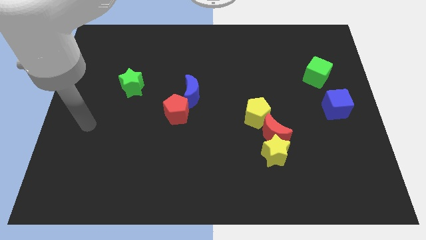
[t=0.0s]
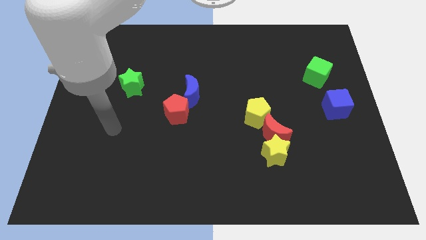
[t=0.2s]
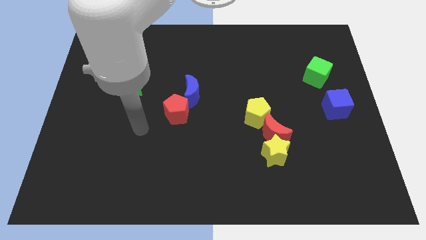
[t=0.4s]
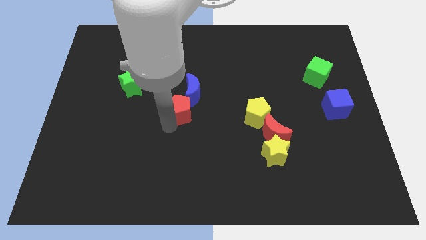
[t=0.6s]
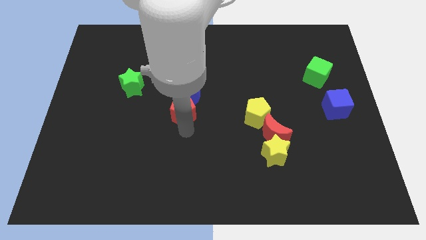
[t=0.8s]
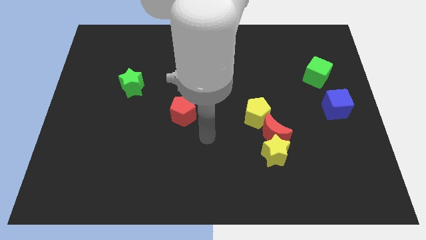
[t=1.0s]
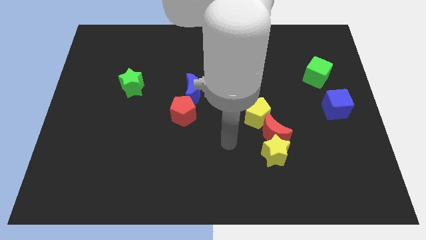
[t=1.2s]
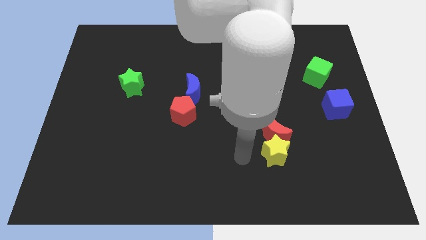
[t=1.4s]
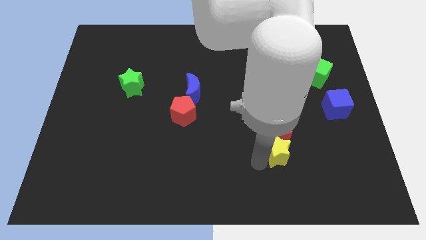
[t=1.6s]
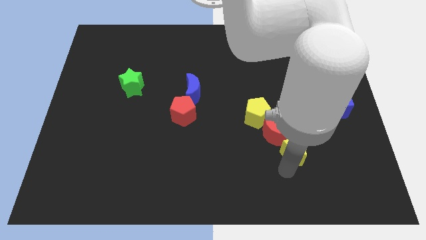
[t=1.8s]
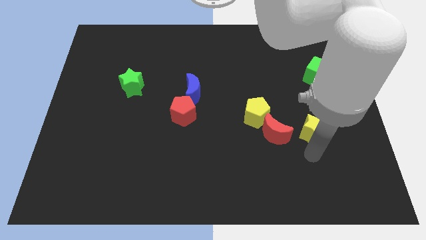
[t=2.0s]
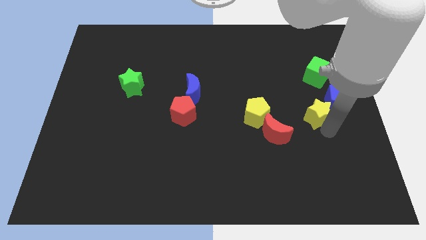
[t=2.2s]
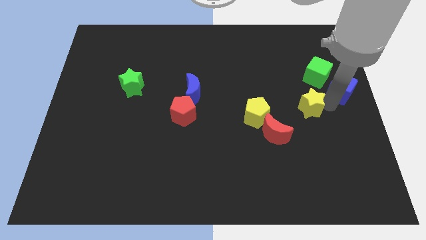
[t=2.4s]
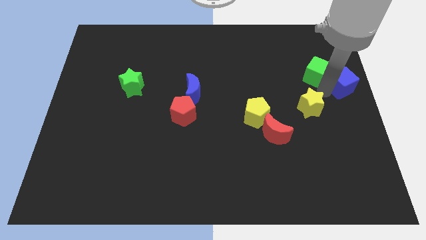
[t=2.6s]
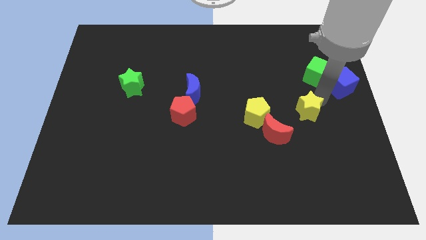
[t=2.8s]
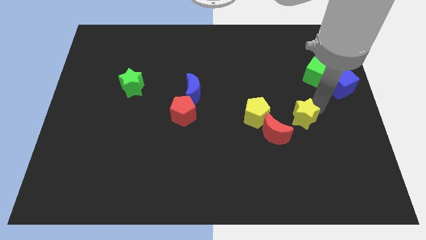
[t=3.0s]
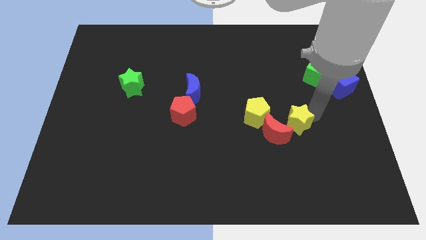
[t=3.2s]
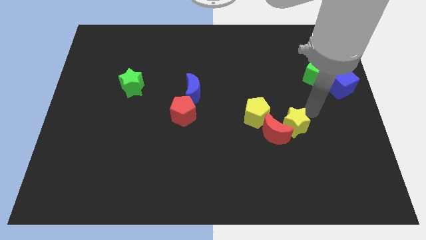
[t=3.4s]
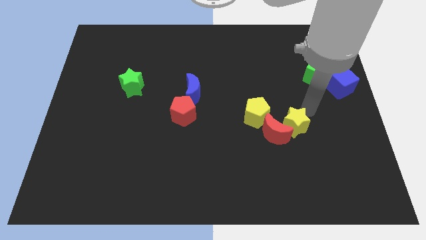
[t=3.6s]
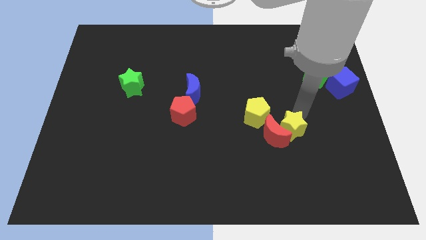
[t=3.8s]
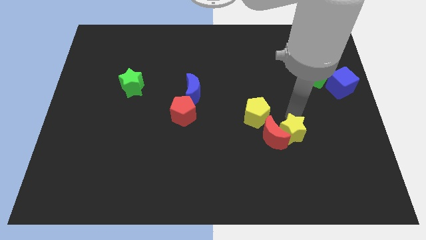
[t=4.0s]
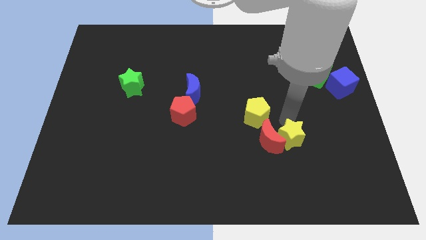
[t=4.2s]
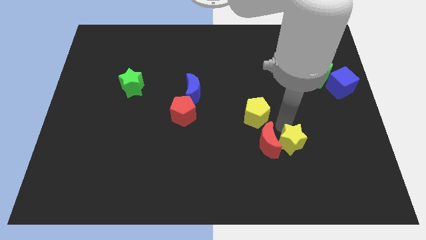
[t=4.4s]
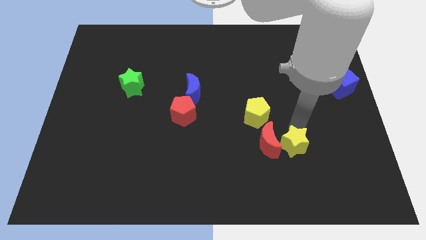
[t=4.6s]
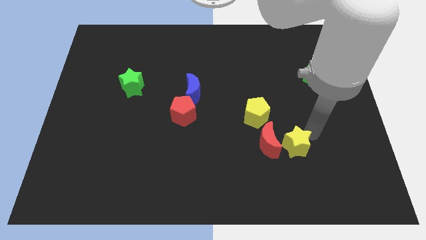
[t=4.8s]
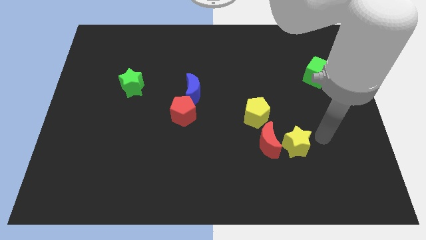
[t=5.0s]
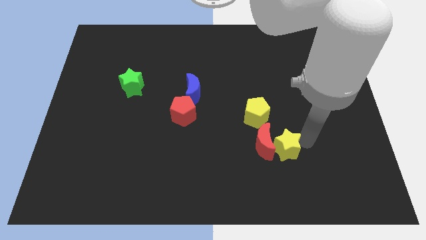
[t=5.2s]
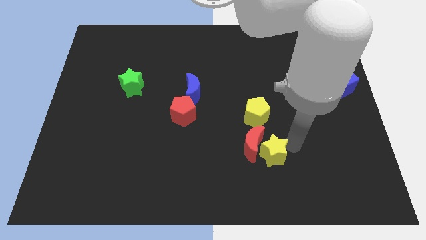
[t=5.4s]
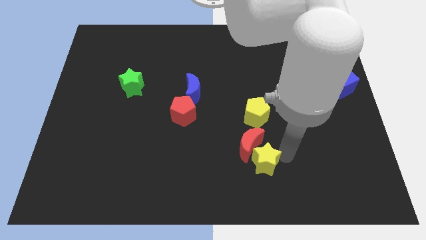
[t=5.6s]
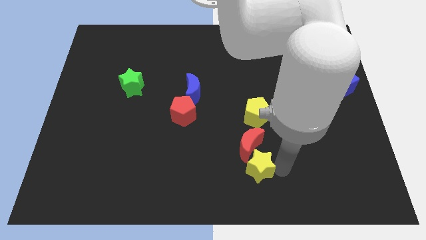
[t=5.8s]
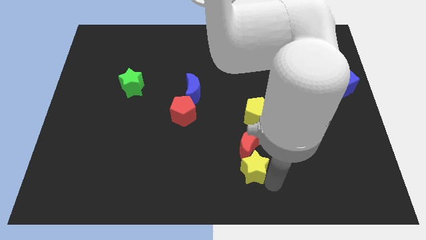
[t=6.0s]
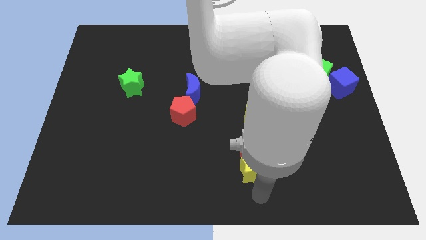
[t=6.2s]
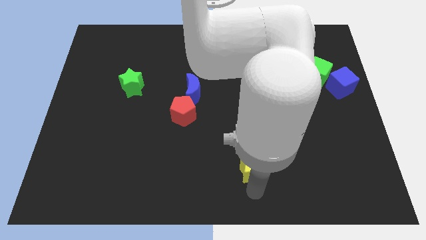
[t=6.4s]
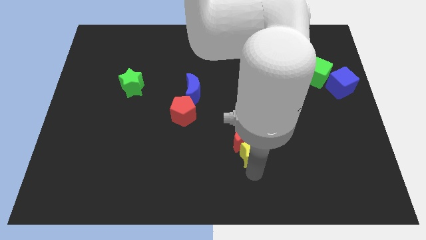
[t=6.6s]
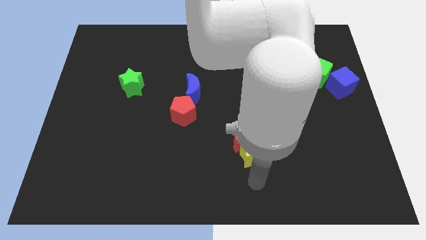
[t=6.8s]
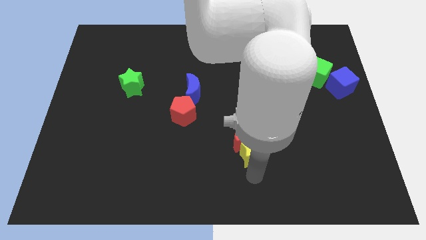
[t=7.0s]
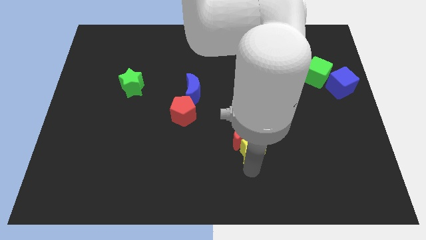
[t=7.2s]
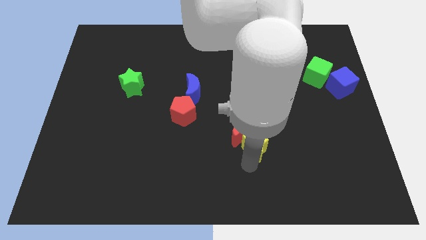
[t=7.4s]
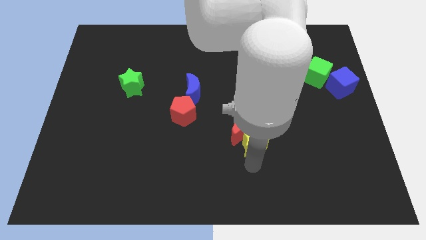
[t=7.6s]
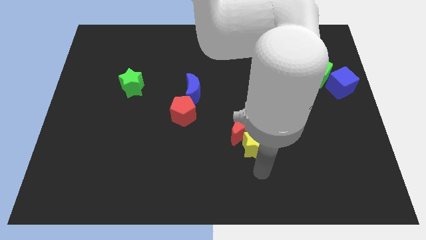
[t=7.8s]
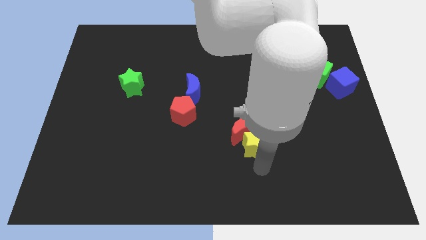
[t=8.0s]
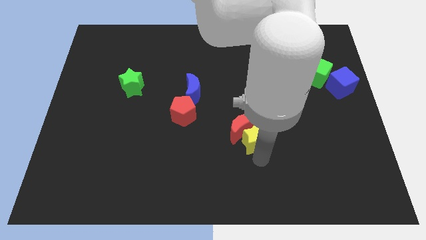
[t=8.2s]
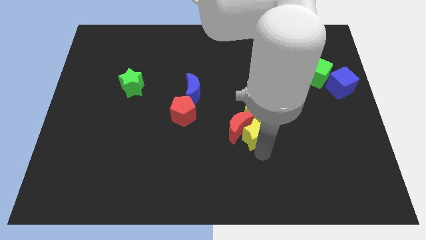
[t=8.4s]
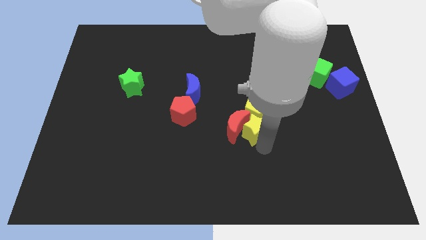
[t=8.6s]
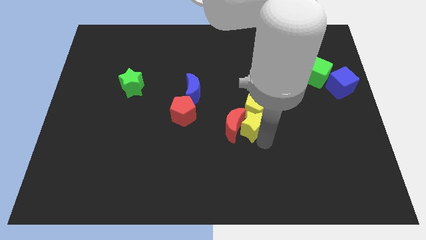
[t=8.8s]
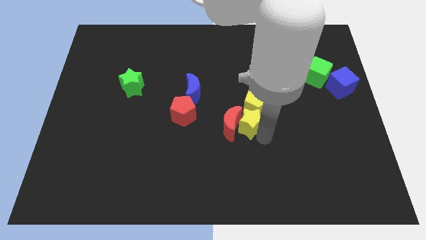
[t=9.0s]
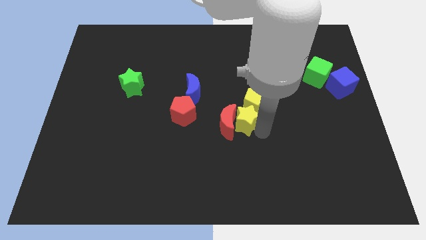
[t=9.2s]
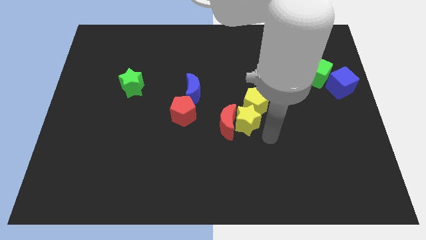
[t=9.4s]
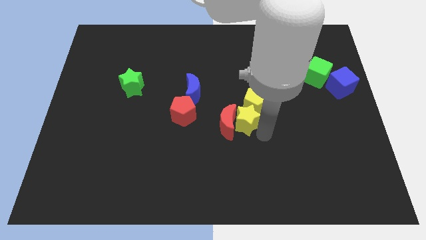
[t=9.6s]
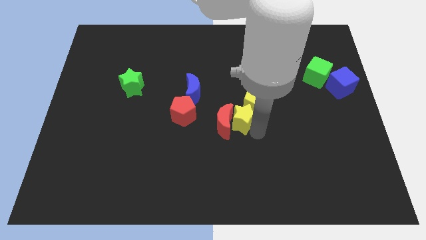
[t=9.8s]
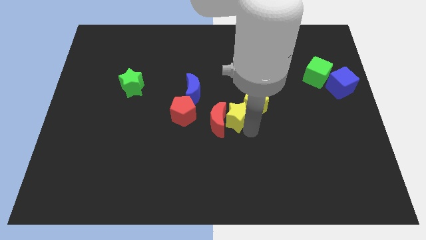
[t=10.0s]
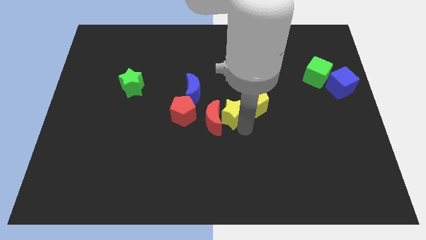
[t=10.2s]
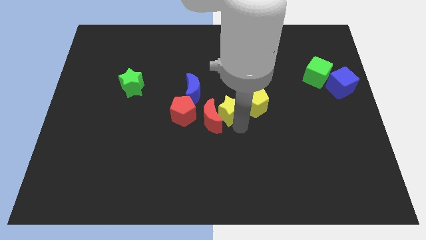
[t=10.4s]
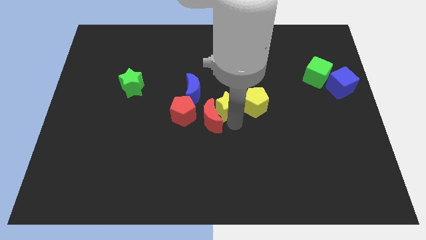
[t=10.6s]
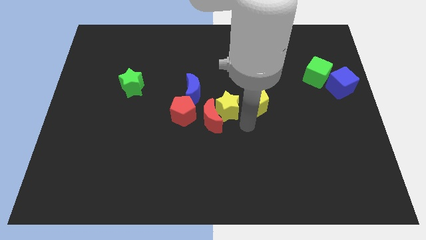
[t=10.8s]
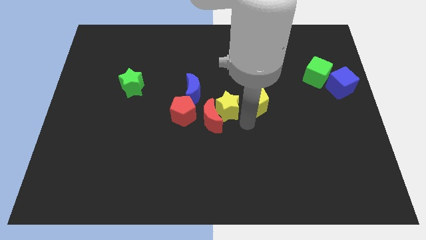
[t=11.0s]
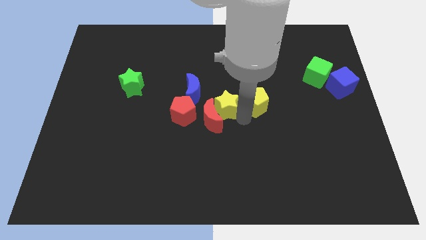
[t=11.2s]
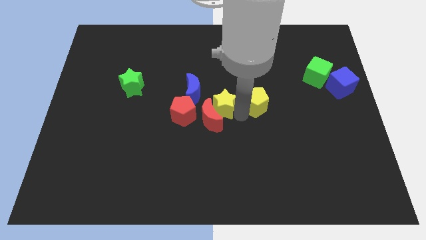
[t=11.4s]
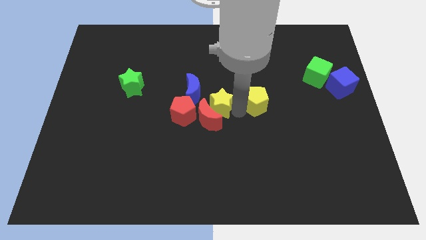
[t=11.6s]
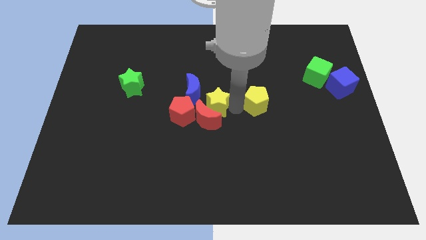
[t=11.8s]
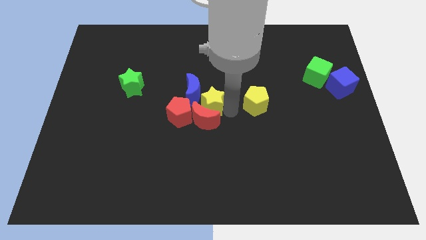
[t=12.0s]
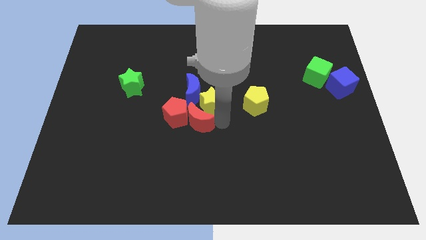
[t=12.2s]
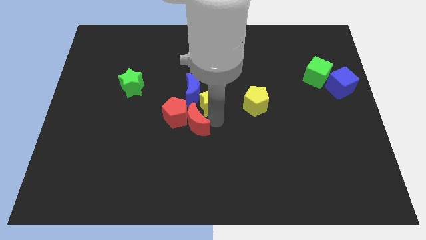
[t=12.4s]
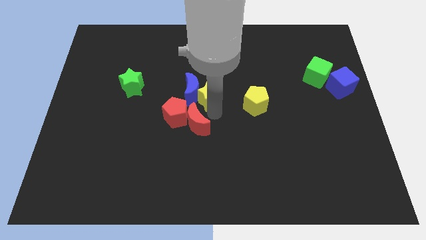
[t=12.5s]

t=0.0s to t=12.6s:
push the yellow star up and to the left diagonally

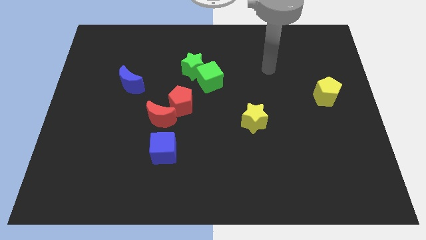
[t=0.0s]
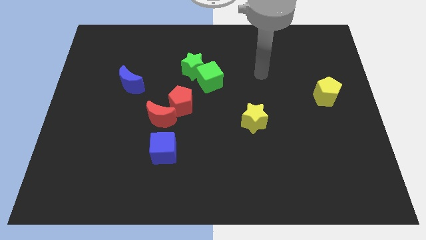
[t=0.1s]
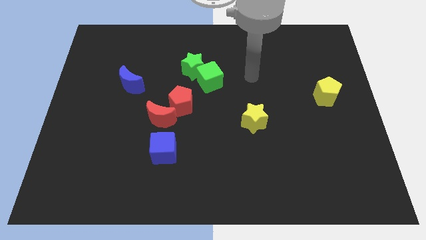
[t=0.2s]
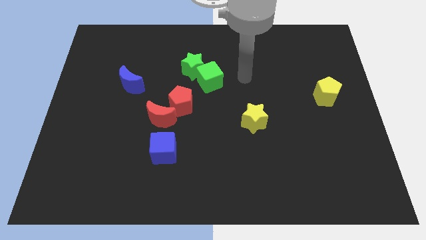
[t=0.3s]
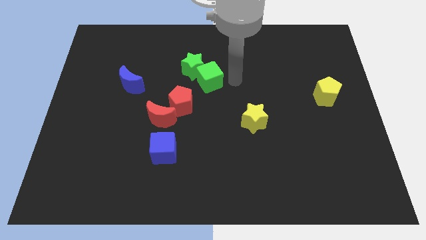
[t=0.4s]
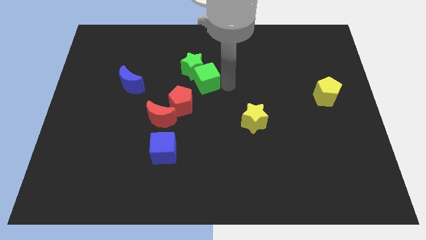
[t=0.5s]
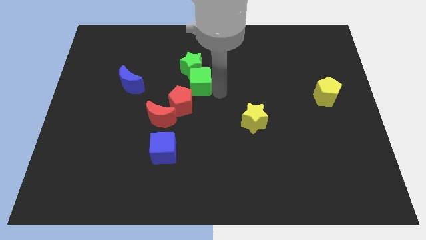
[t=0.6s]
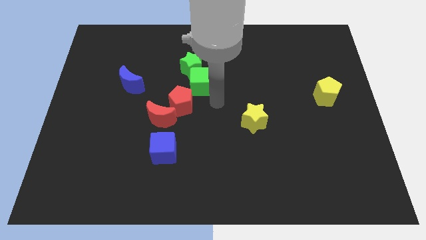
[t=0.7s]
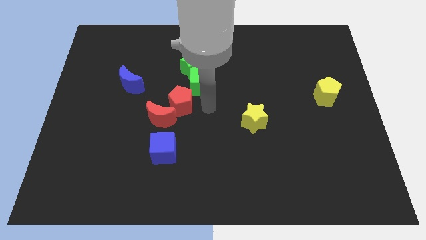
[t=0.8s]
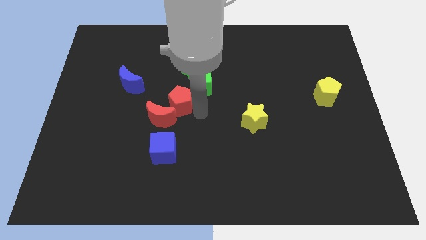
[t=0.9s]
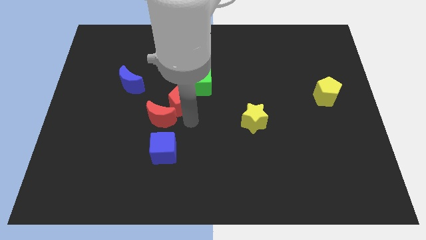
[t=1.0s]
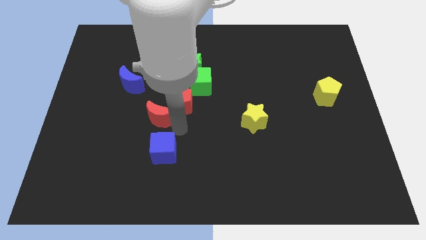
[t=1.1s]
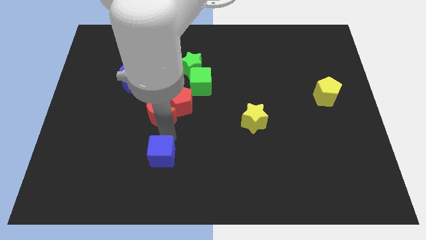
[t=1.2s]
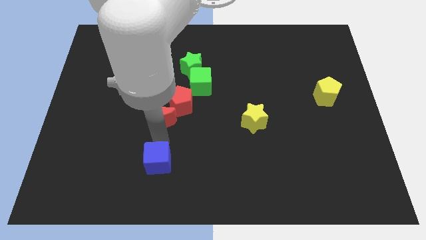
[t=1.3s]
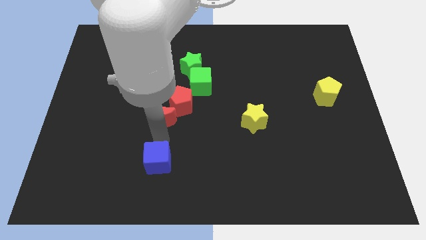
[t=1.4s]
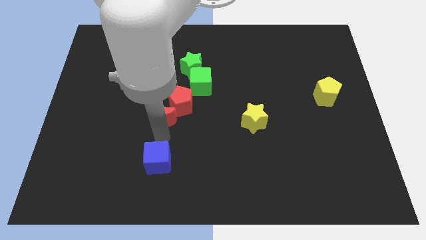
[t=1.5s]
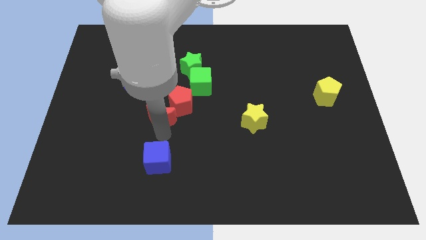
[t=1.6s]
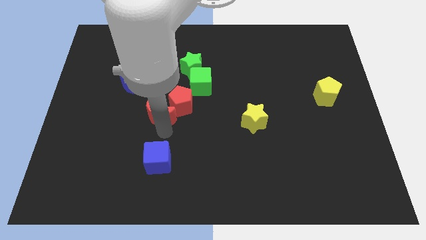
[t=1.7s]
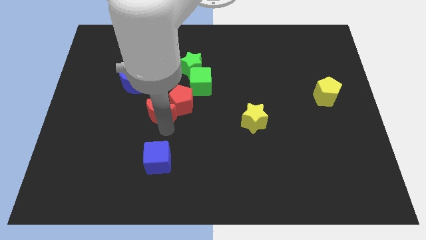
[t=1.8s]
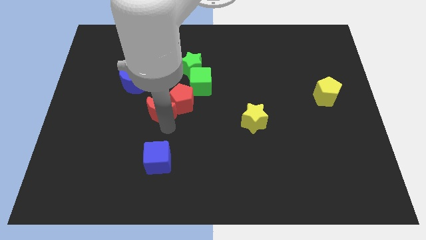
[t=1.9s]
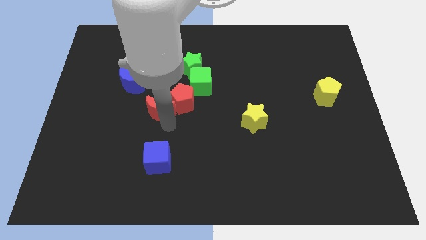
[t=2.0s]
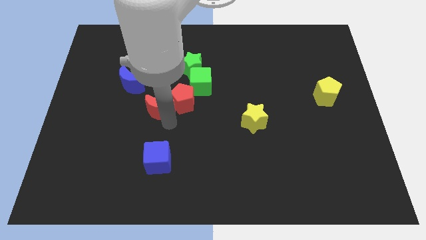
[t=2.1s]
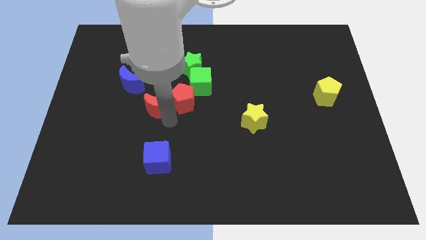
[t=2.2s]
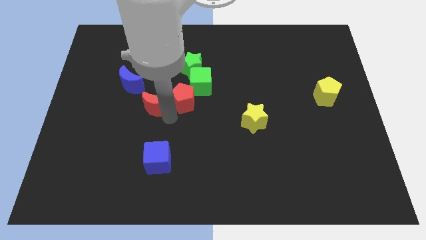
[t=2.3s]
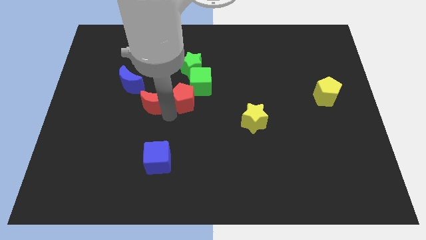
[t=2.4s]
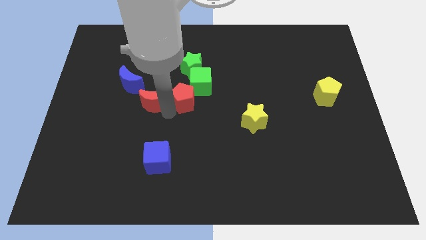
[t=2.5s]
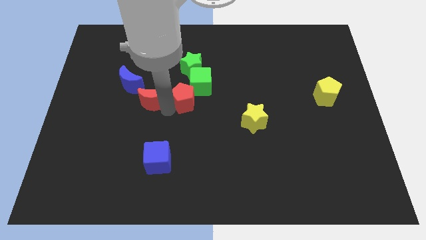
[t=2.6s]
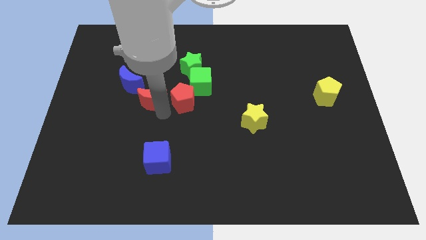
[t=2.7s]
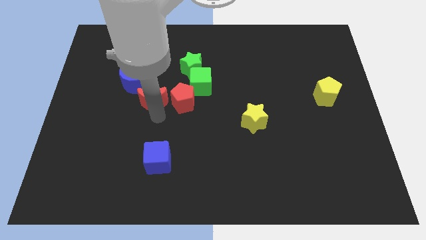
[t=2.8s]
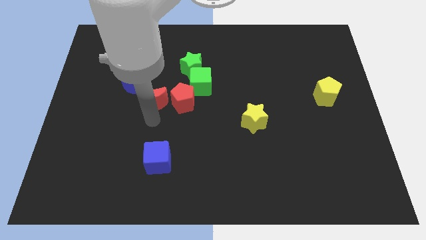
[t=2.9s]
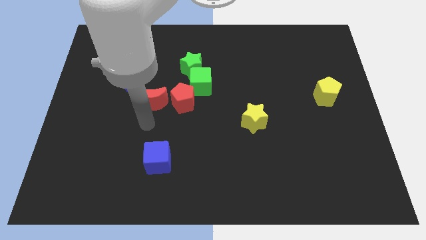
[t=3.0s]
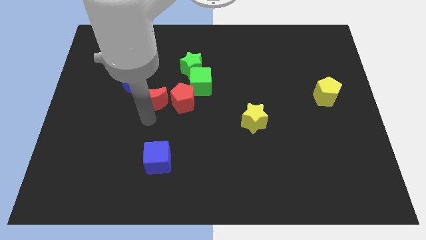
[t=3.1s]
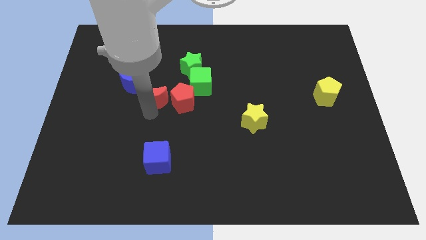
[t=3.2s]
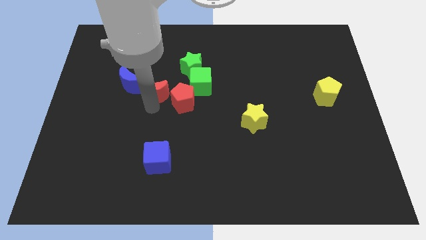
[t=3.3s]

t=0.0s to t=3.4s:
slightly push the red moon up
